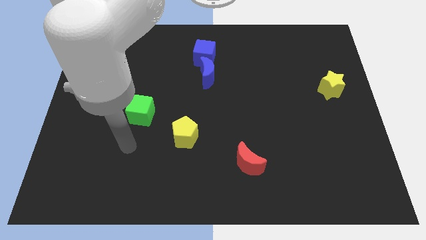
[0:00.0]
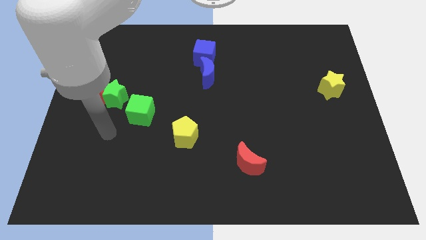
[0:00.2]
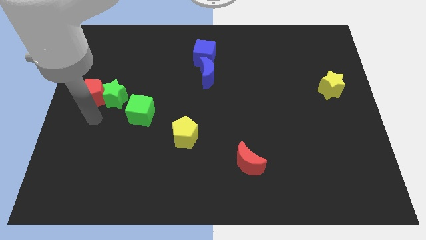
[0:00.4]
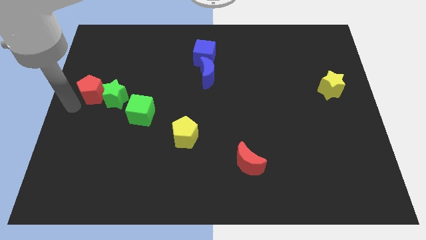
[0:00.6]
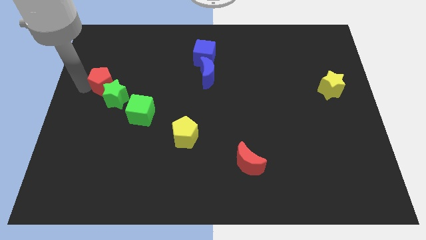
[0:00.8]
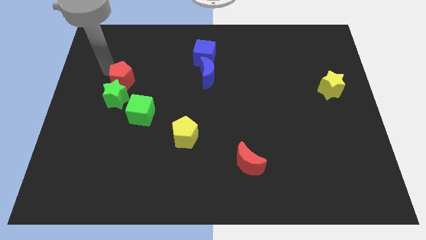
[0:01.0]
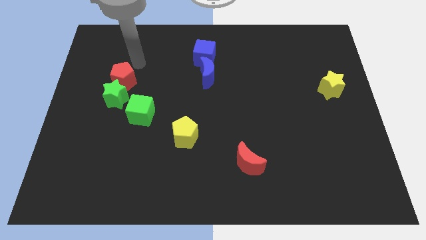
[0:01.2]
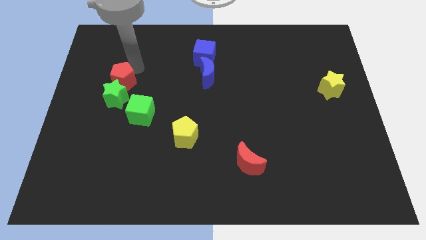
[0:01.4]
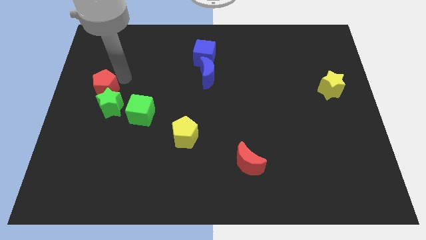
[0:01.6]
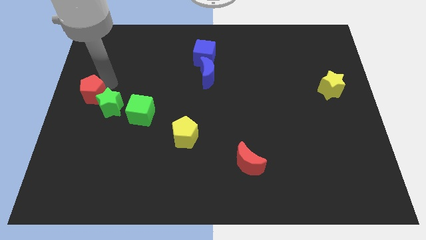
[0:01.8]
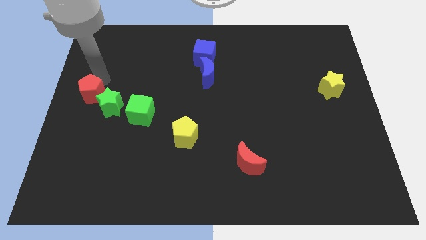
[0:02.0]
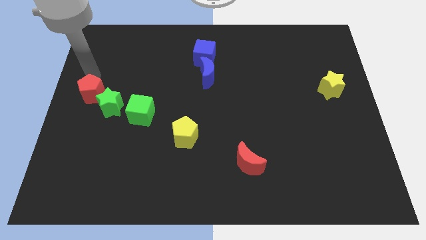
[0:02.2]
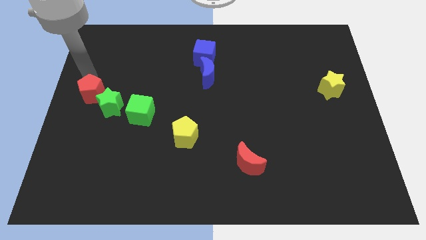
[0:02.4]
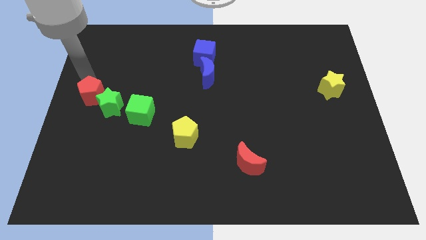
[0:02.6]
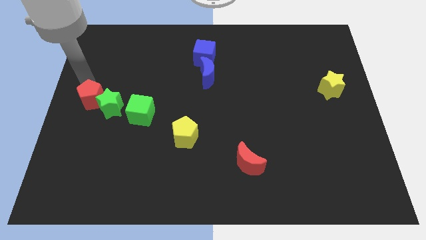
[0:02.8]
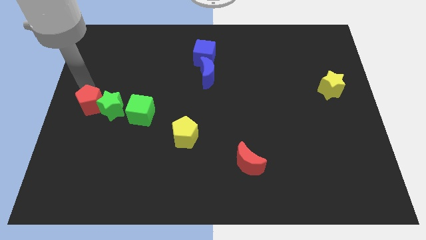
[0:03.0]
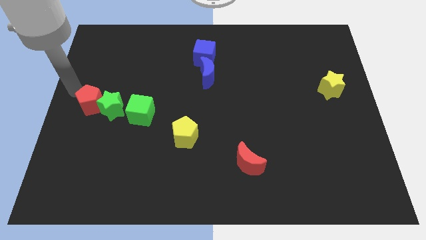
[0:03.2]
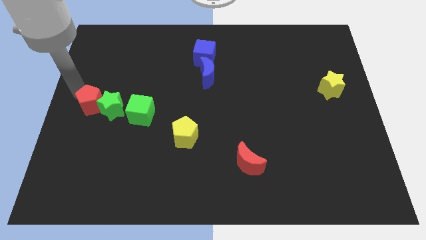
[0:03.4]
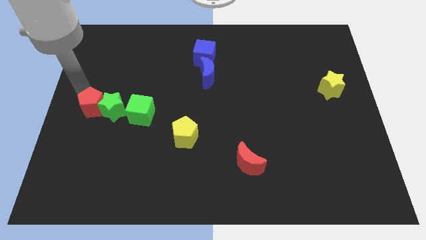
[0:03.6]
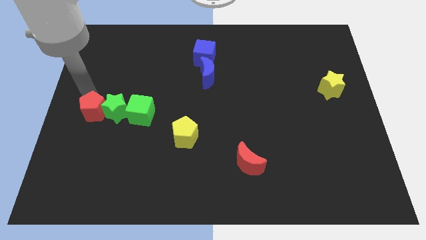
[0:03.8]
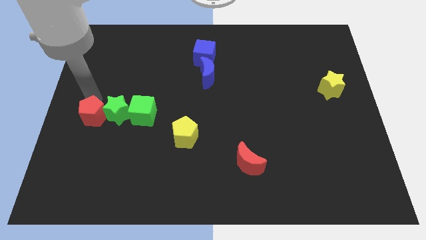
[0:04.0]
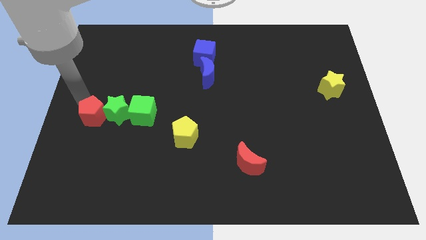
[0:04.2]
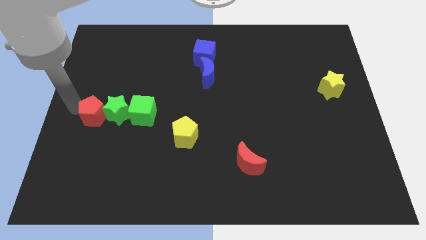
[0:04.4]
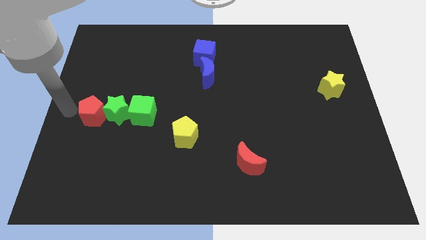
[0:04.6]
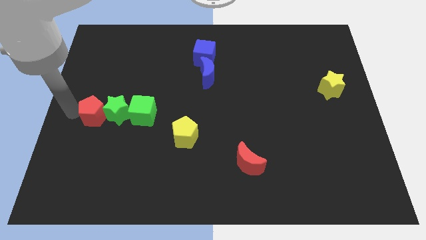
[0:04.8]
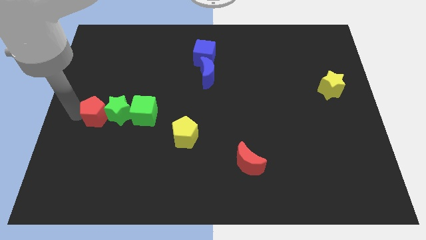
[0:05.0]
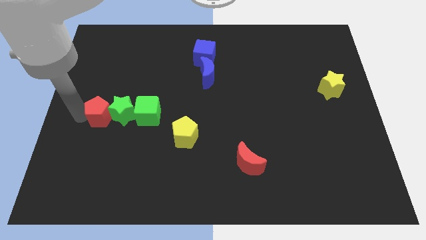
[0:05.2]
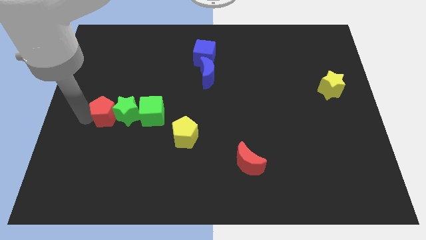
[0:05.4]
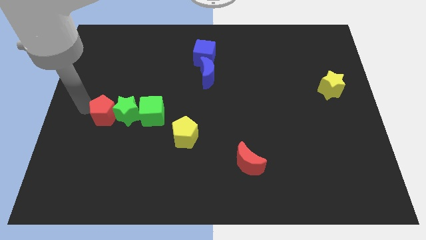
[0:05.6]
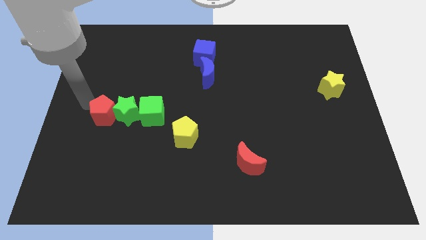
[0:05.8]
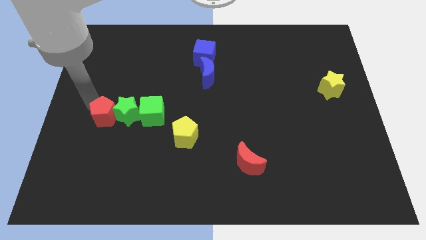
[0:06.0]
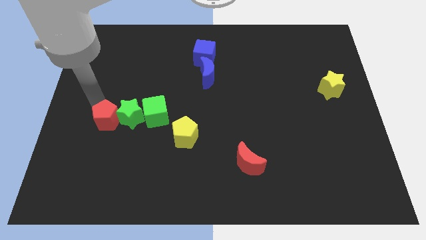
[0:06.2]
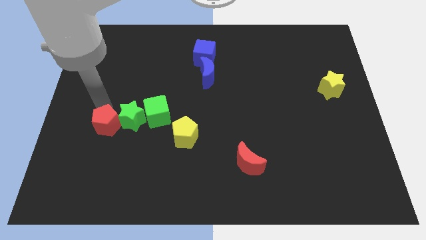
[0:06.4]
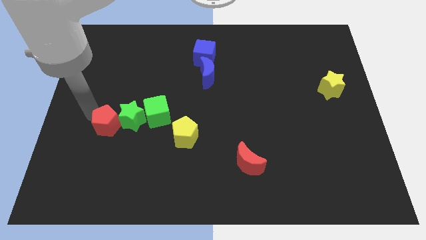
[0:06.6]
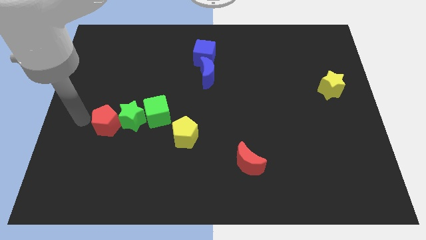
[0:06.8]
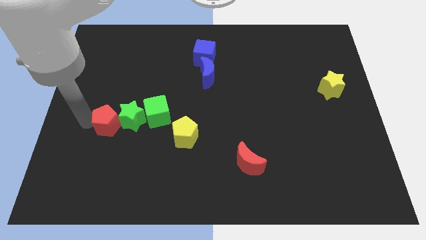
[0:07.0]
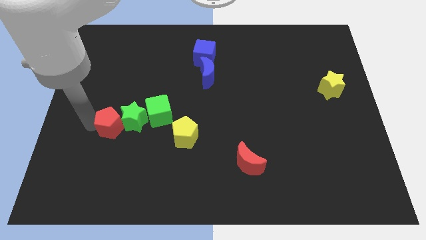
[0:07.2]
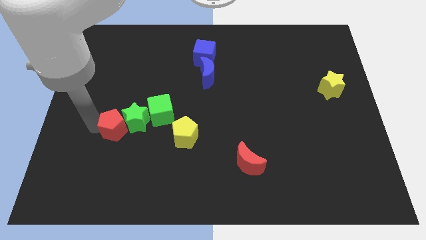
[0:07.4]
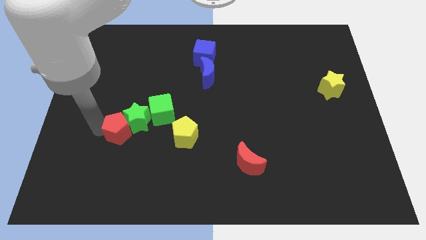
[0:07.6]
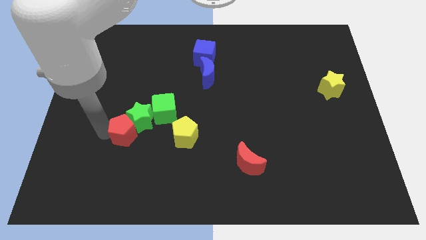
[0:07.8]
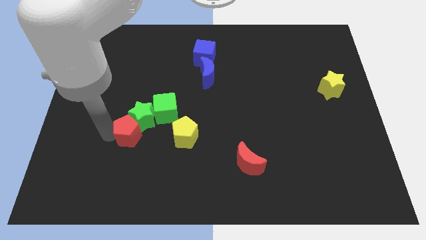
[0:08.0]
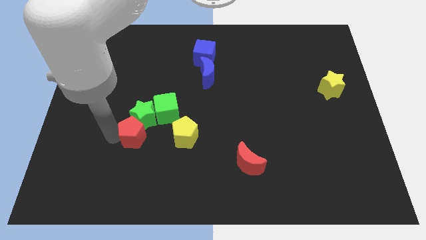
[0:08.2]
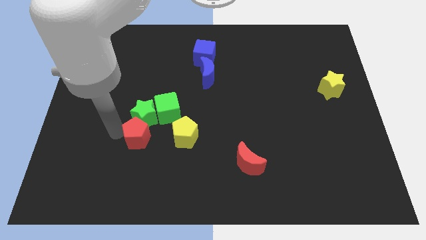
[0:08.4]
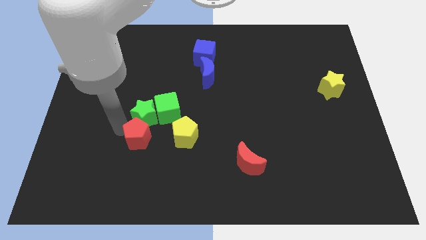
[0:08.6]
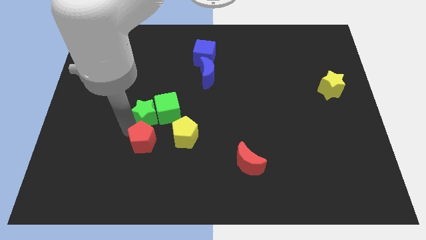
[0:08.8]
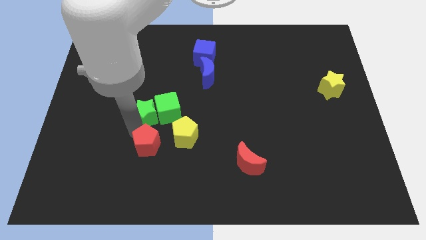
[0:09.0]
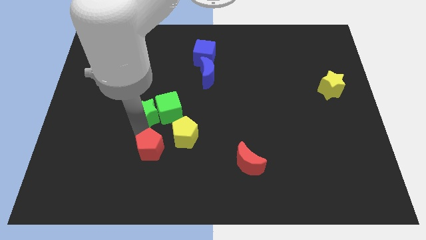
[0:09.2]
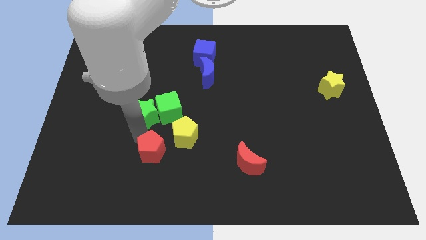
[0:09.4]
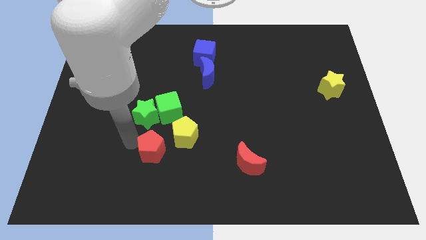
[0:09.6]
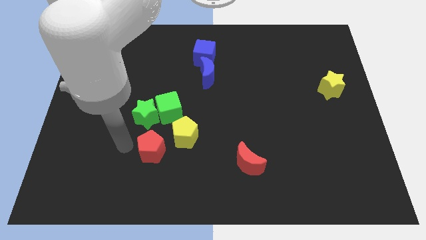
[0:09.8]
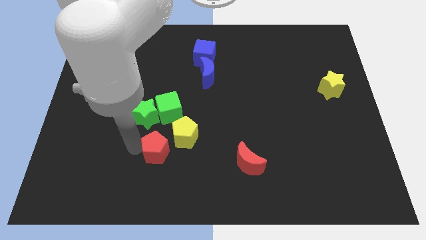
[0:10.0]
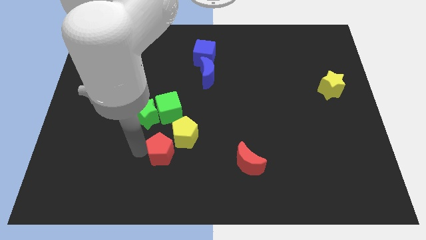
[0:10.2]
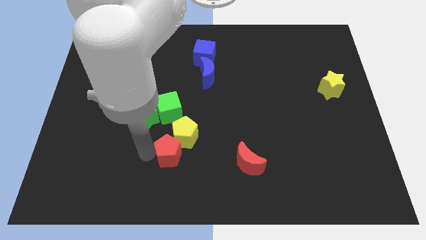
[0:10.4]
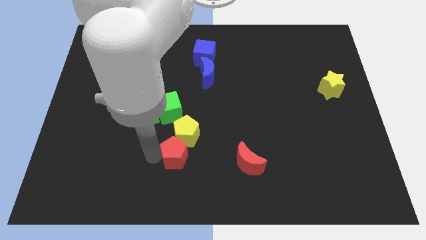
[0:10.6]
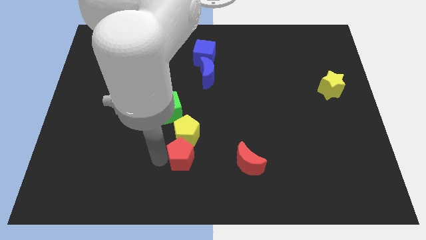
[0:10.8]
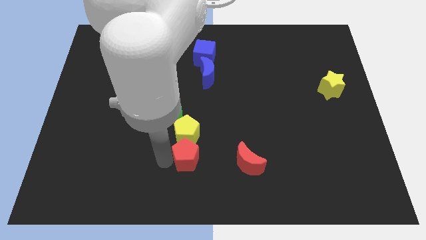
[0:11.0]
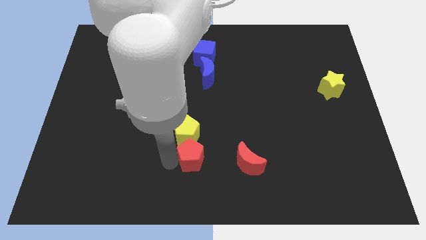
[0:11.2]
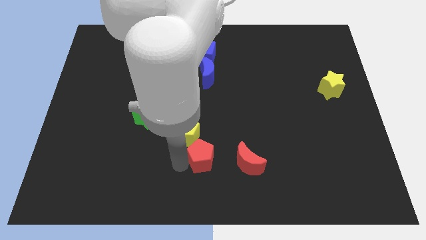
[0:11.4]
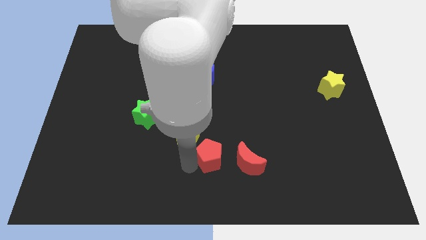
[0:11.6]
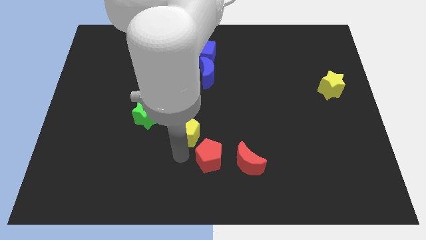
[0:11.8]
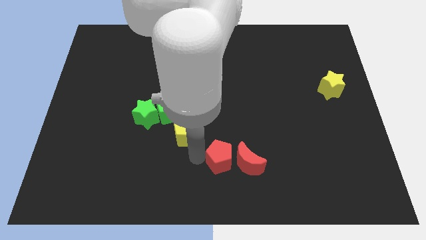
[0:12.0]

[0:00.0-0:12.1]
move the red pentagon next to the red moon

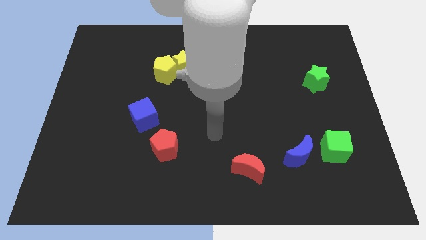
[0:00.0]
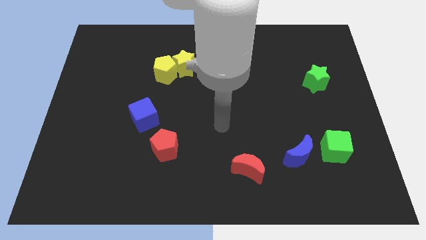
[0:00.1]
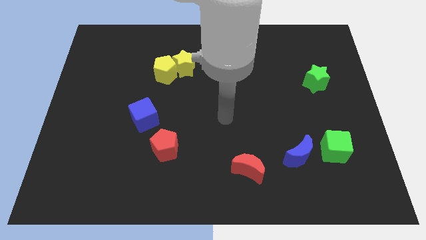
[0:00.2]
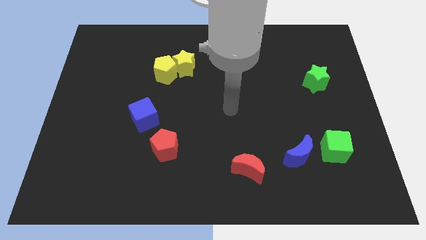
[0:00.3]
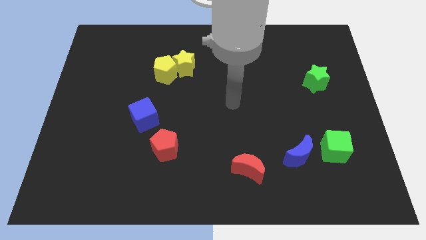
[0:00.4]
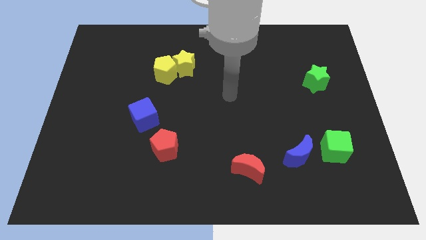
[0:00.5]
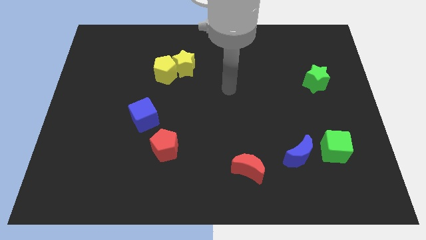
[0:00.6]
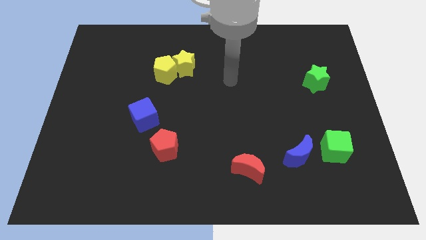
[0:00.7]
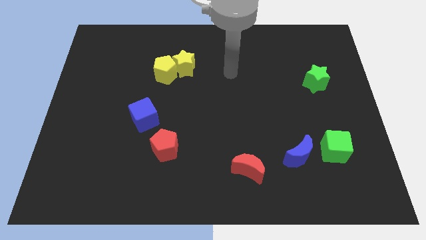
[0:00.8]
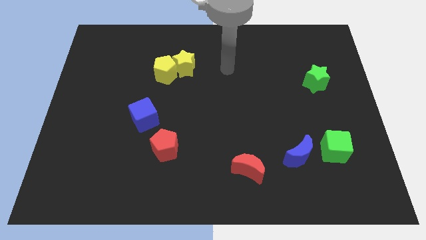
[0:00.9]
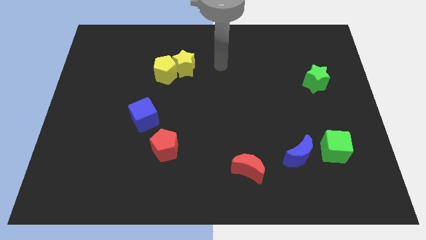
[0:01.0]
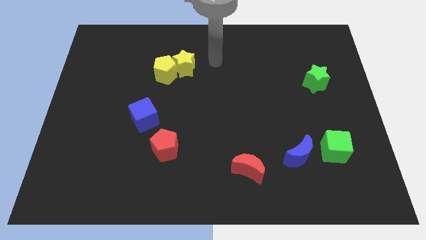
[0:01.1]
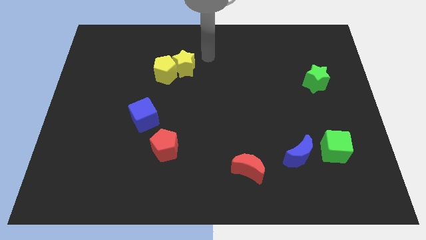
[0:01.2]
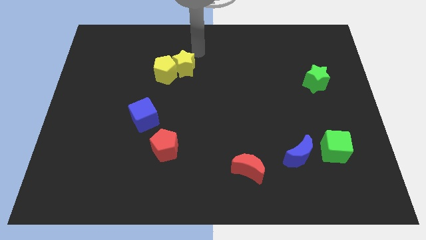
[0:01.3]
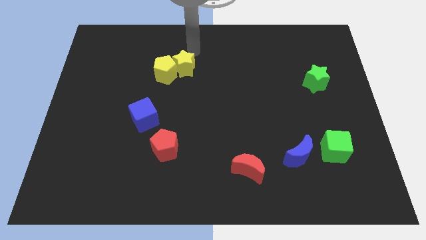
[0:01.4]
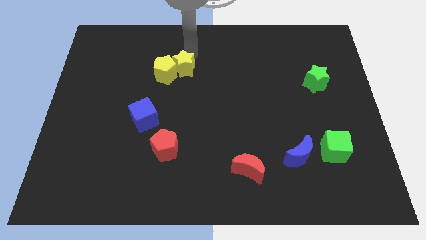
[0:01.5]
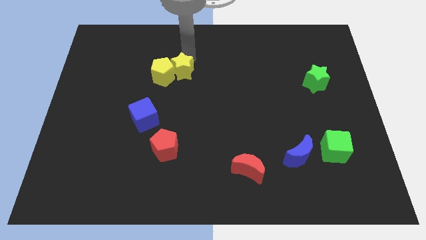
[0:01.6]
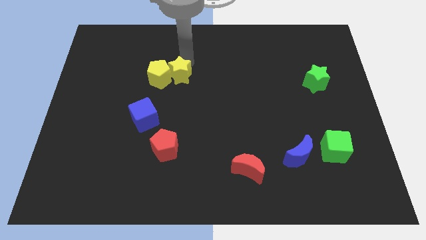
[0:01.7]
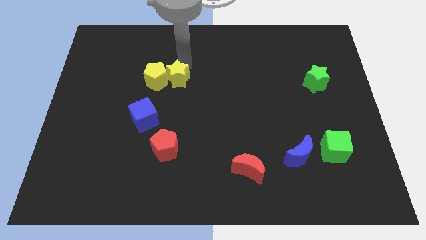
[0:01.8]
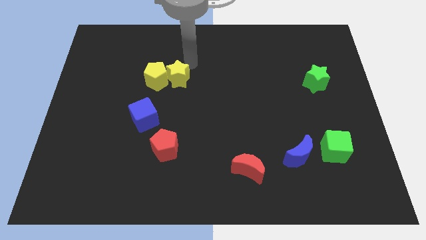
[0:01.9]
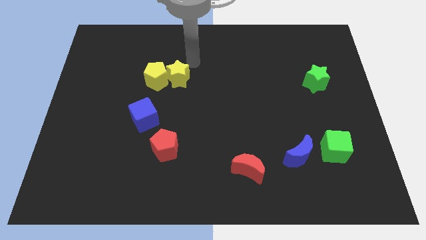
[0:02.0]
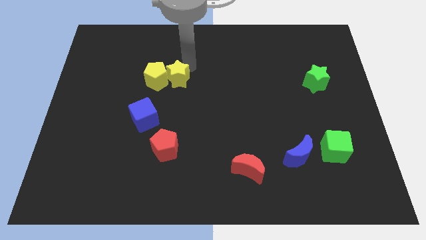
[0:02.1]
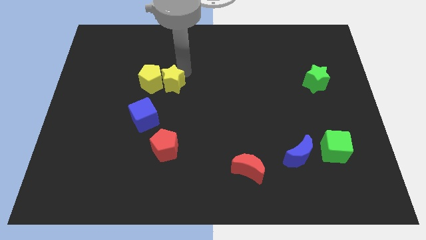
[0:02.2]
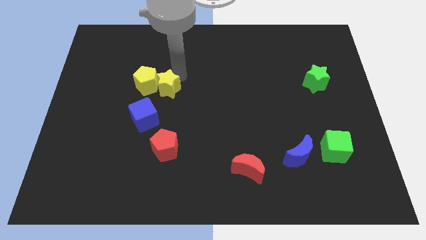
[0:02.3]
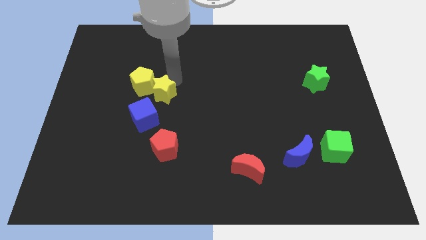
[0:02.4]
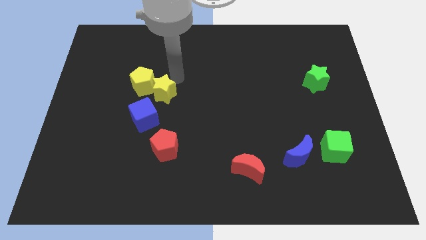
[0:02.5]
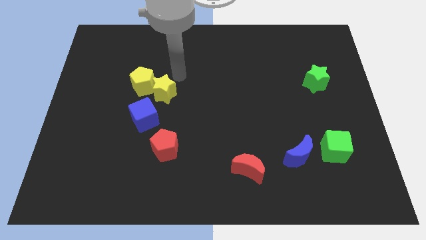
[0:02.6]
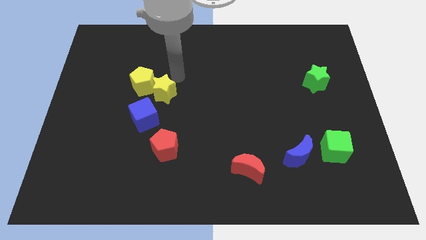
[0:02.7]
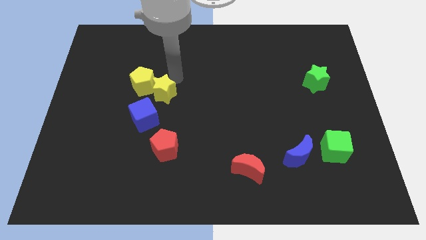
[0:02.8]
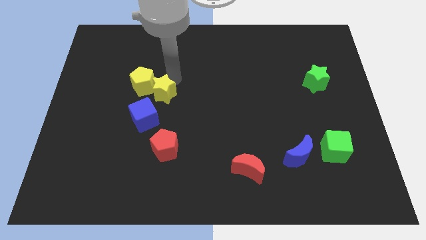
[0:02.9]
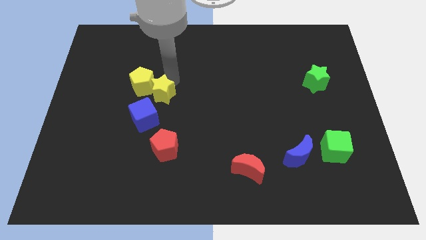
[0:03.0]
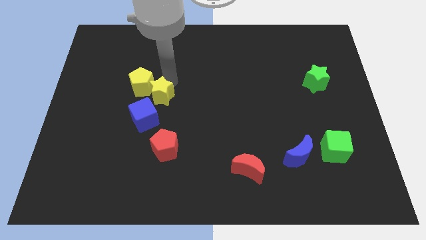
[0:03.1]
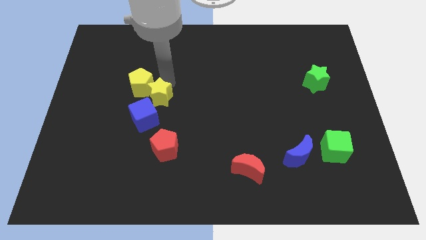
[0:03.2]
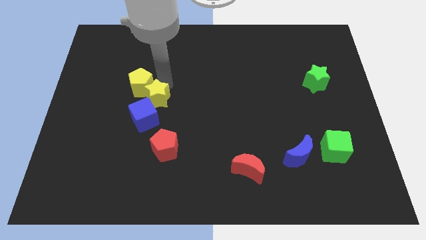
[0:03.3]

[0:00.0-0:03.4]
push the yellow star towards the blue cube
